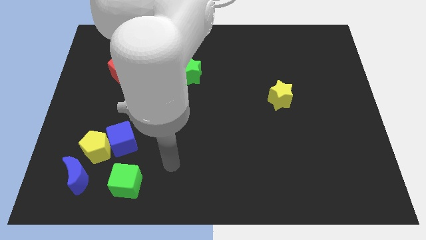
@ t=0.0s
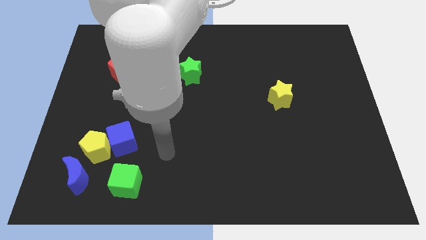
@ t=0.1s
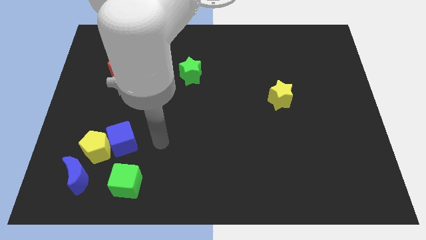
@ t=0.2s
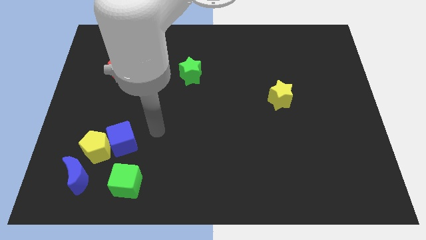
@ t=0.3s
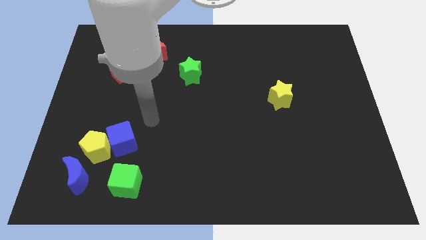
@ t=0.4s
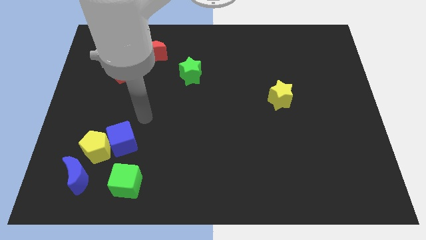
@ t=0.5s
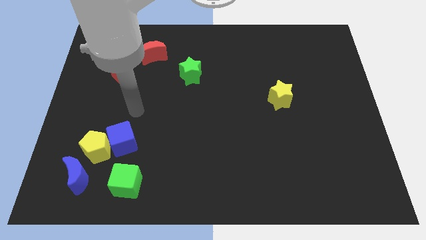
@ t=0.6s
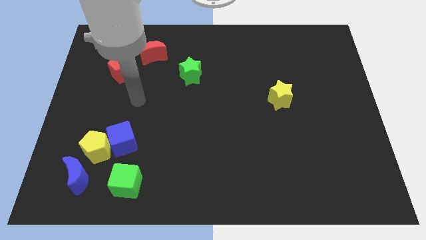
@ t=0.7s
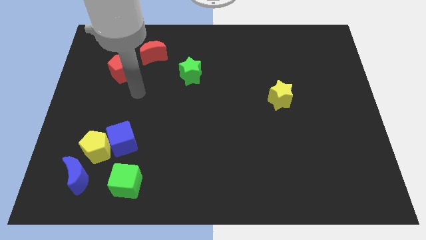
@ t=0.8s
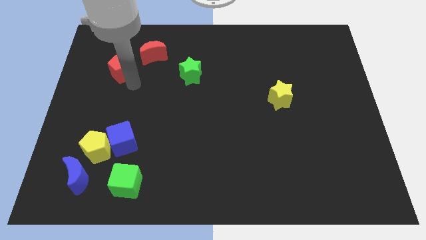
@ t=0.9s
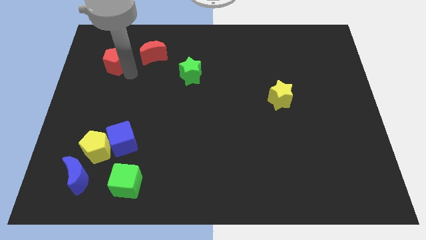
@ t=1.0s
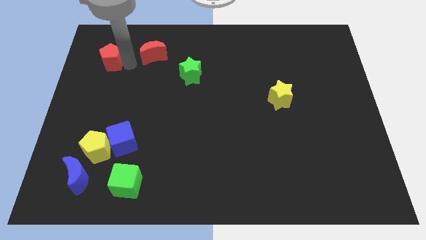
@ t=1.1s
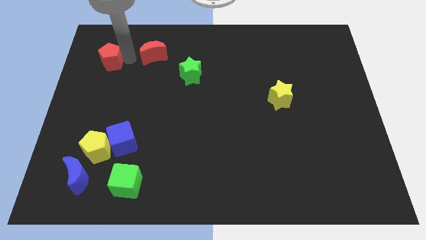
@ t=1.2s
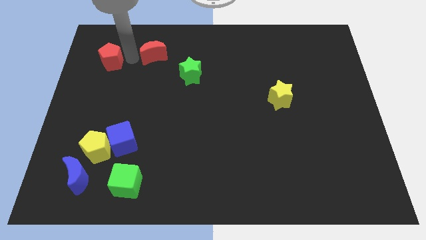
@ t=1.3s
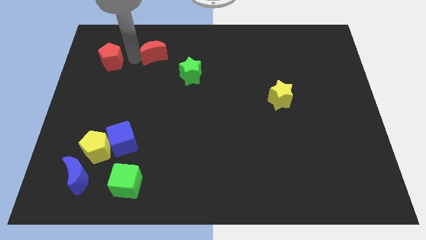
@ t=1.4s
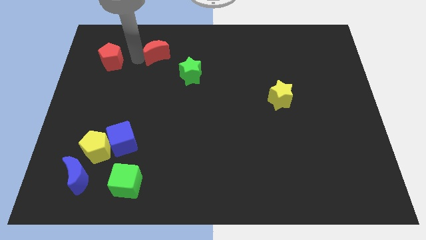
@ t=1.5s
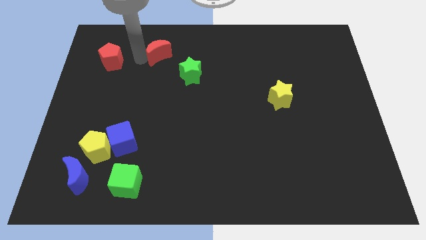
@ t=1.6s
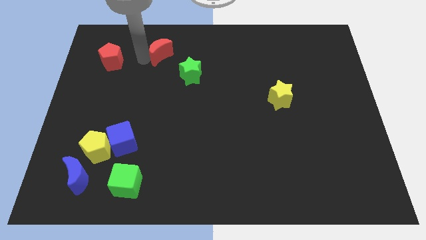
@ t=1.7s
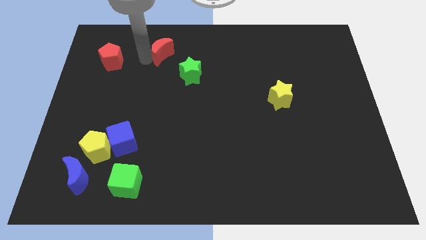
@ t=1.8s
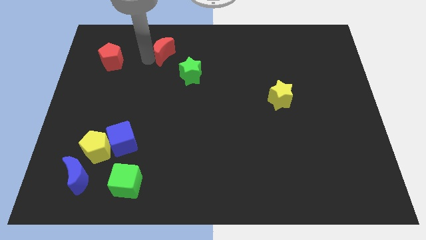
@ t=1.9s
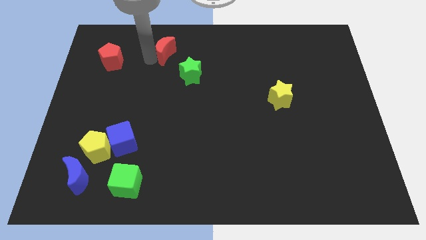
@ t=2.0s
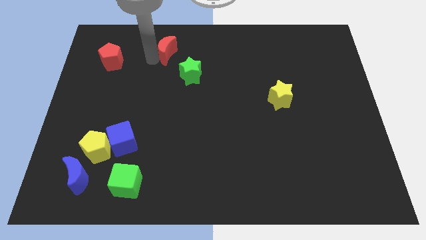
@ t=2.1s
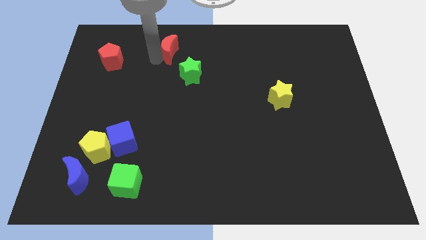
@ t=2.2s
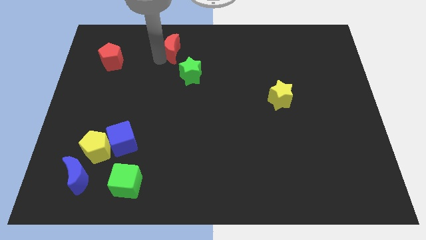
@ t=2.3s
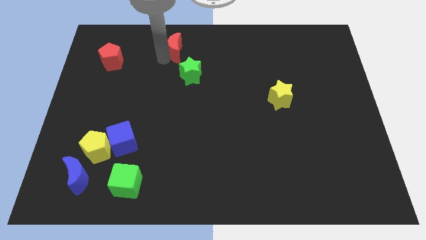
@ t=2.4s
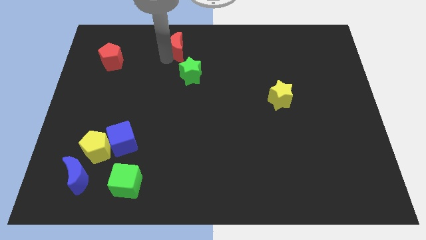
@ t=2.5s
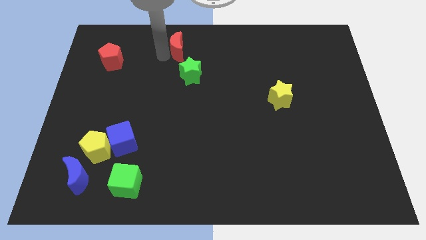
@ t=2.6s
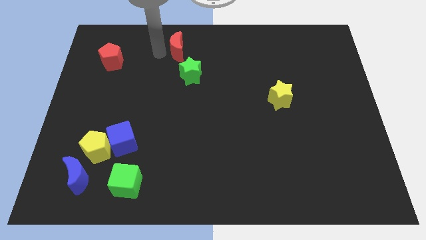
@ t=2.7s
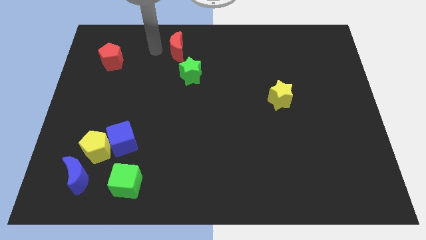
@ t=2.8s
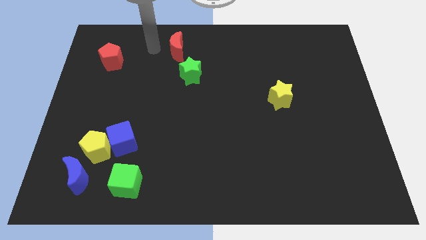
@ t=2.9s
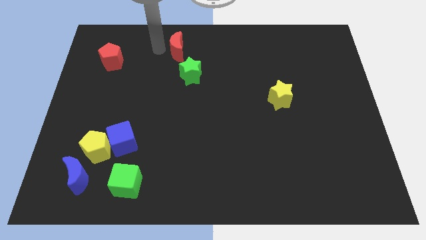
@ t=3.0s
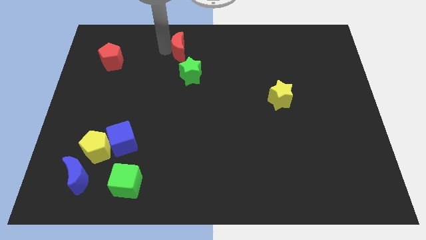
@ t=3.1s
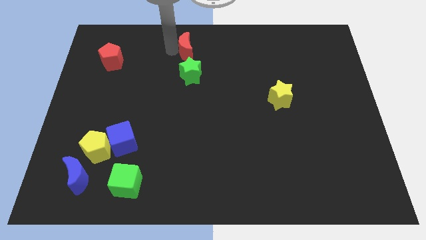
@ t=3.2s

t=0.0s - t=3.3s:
slide the red moon a bit right

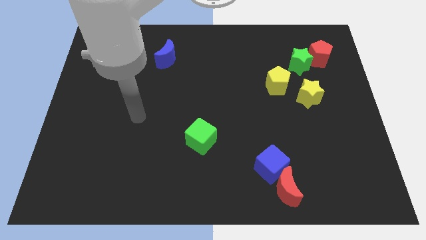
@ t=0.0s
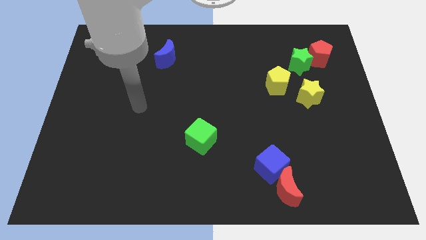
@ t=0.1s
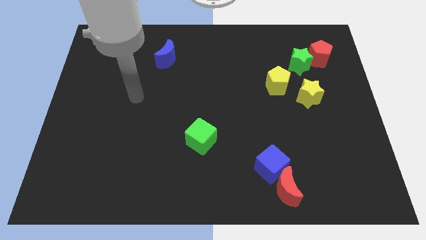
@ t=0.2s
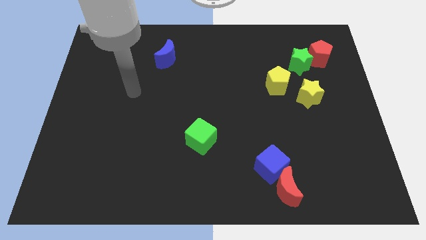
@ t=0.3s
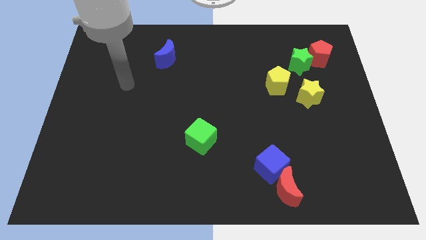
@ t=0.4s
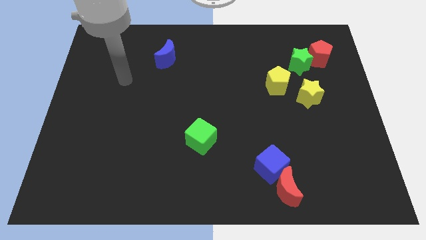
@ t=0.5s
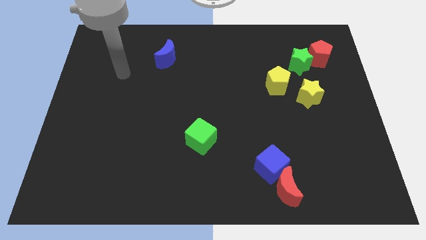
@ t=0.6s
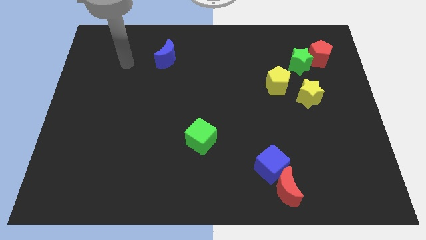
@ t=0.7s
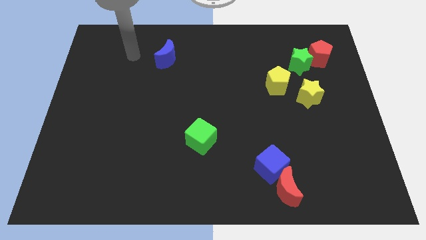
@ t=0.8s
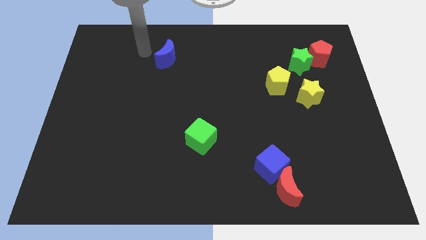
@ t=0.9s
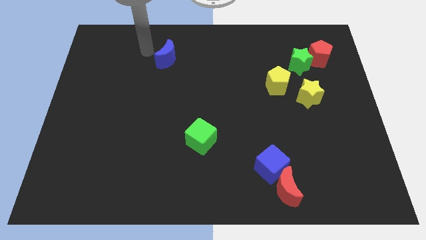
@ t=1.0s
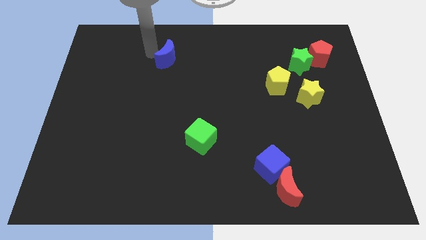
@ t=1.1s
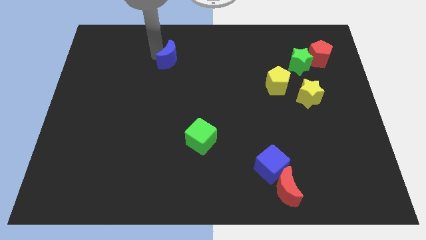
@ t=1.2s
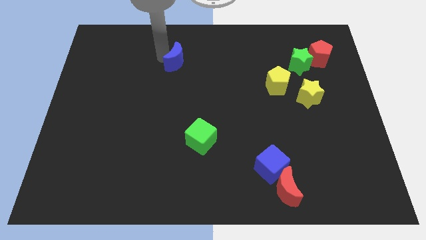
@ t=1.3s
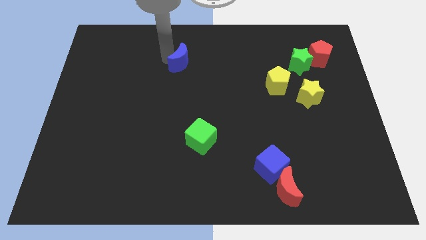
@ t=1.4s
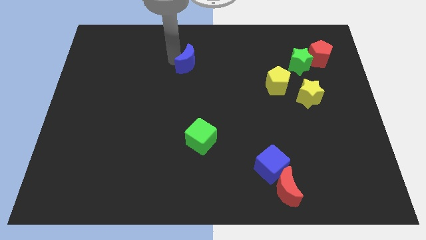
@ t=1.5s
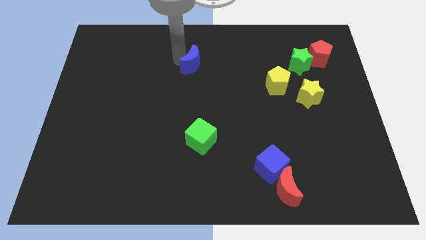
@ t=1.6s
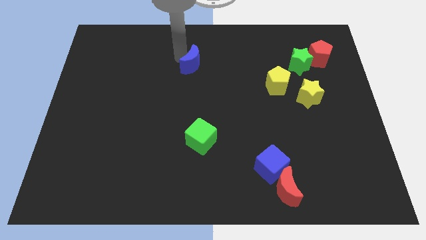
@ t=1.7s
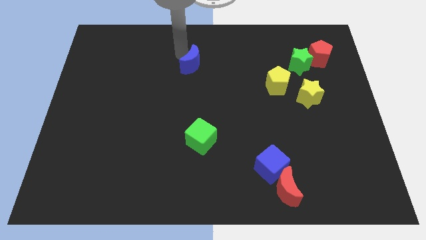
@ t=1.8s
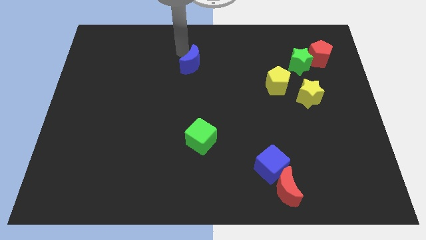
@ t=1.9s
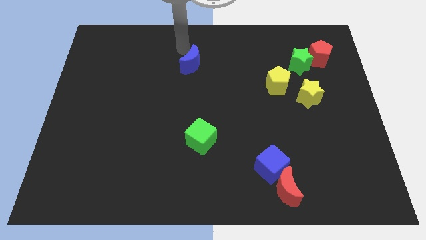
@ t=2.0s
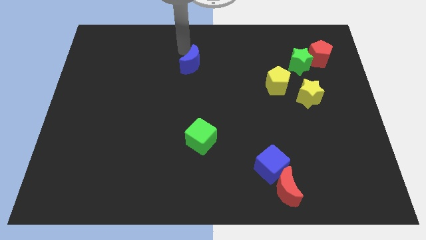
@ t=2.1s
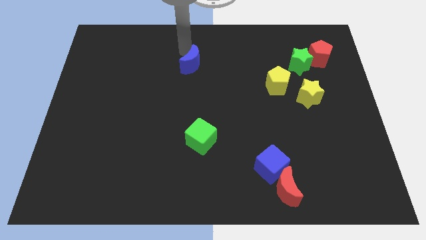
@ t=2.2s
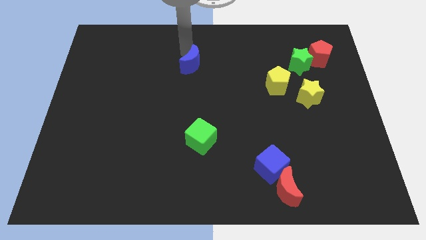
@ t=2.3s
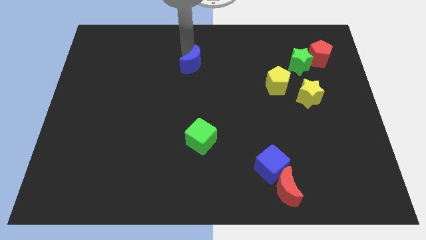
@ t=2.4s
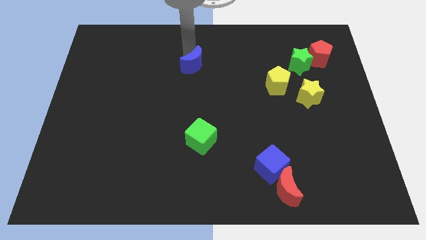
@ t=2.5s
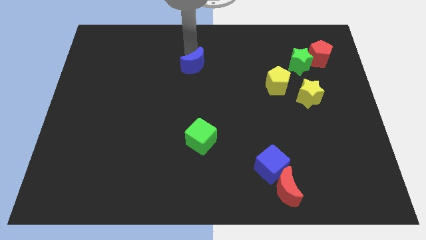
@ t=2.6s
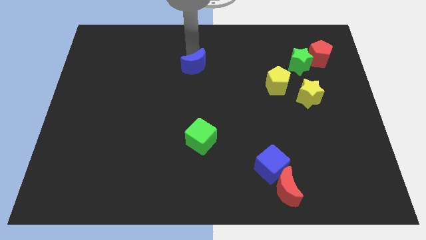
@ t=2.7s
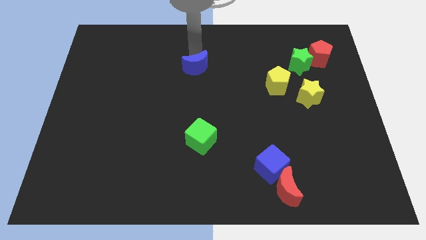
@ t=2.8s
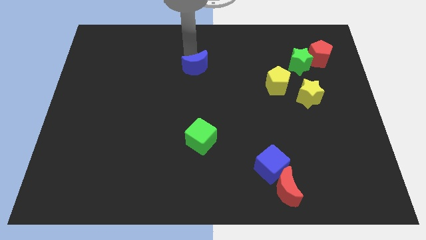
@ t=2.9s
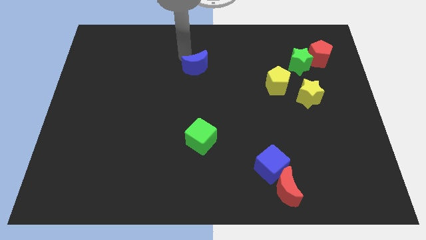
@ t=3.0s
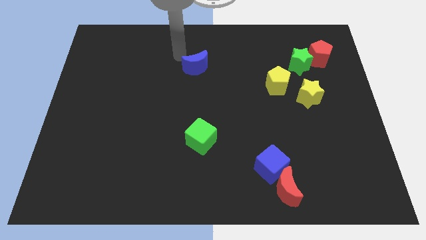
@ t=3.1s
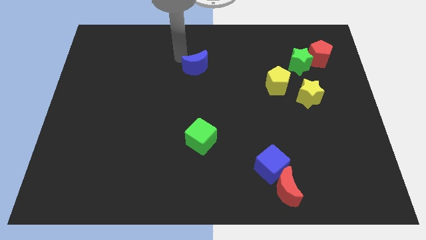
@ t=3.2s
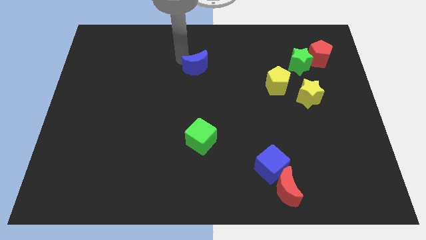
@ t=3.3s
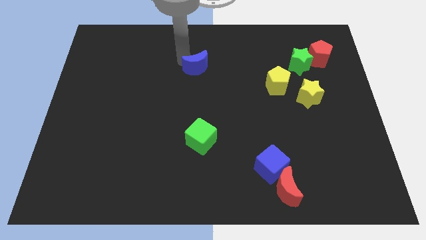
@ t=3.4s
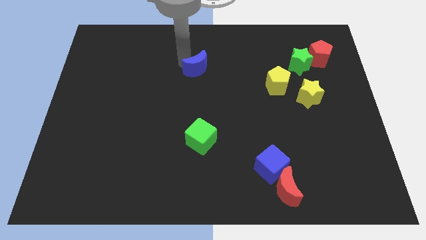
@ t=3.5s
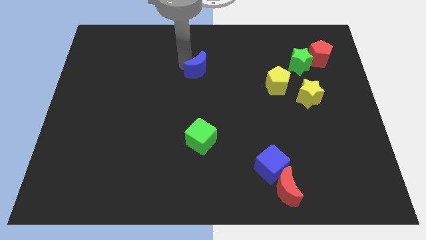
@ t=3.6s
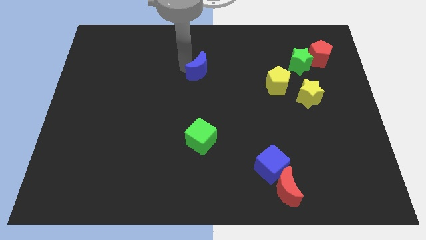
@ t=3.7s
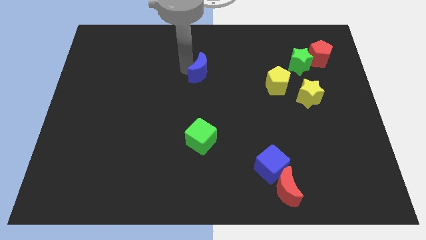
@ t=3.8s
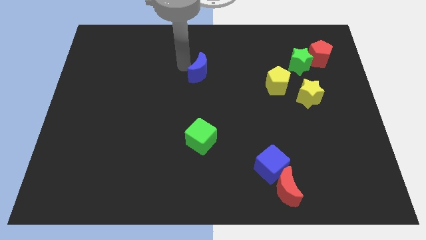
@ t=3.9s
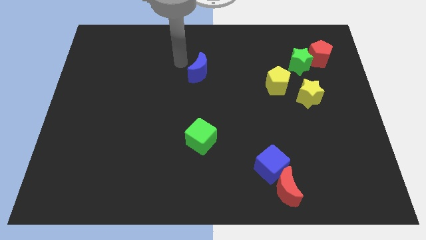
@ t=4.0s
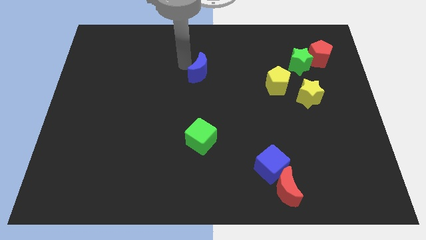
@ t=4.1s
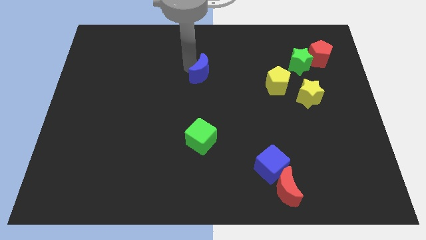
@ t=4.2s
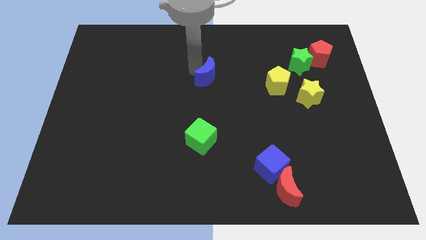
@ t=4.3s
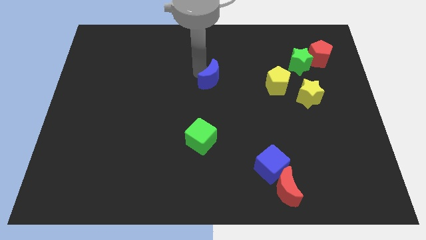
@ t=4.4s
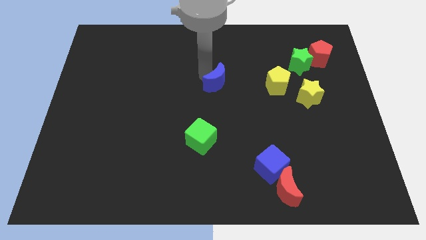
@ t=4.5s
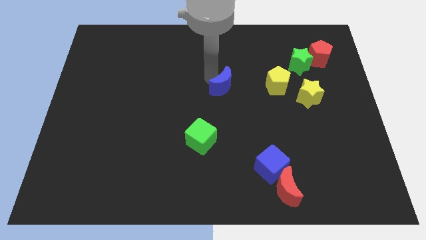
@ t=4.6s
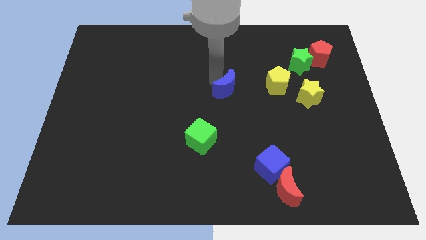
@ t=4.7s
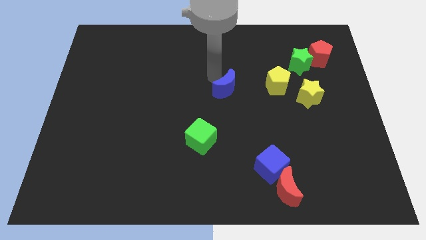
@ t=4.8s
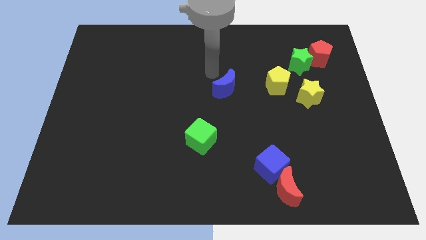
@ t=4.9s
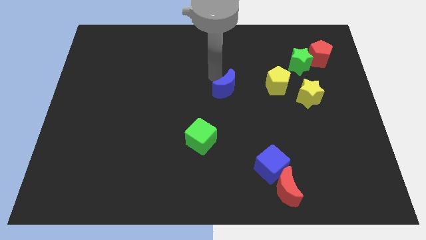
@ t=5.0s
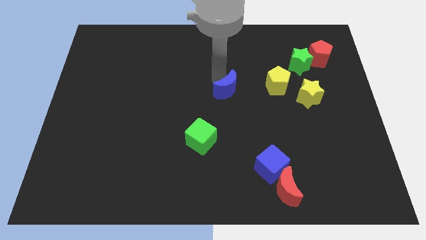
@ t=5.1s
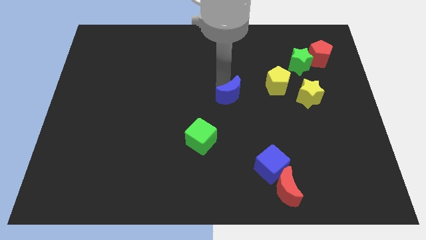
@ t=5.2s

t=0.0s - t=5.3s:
slide the blue moon downwards and to the right diagonally
